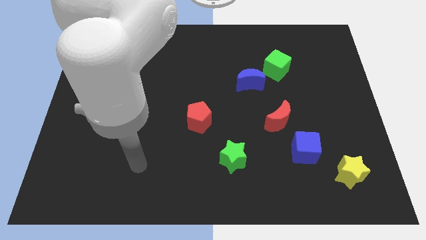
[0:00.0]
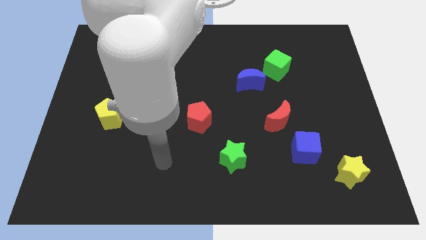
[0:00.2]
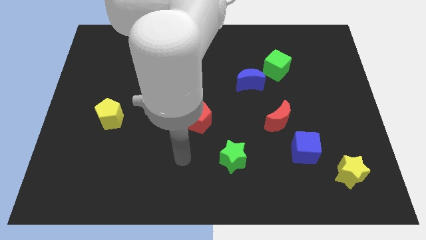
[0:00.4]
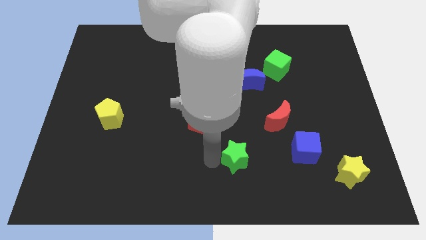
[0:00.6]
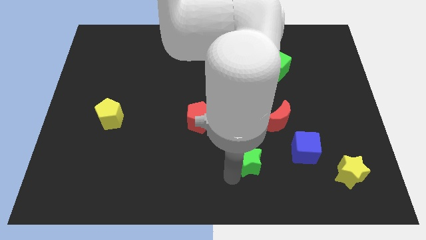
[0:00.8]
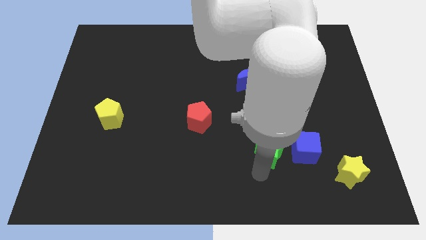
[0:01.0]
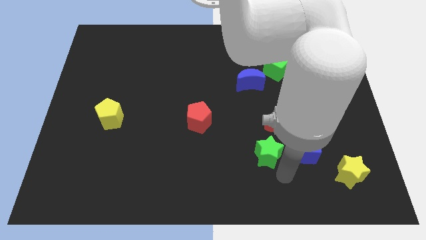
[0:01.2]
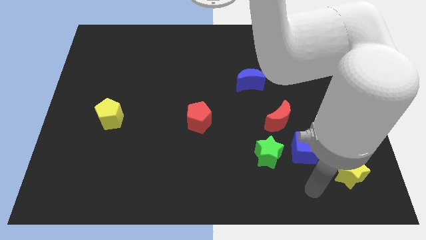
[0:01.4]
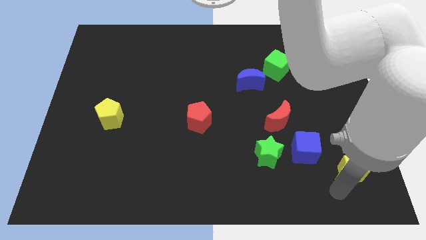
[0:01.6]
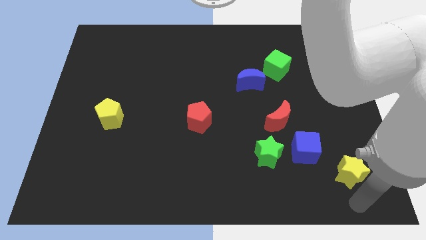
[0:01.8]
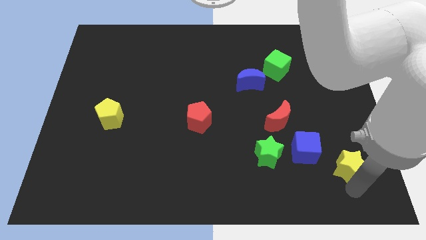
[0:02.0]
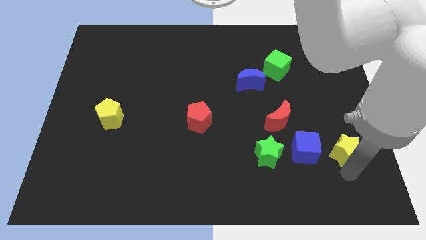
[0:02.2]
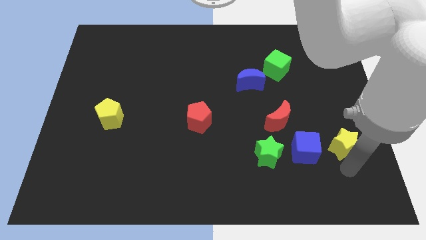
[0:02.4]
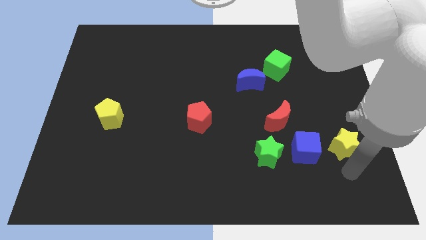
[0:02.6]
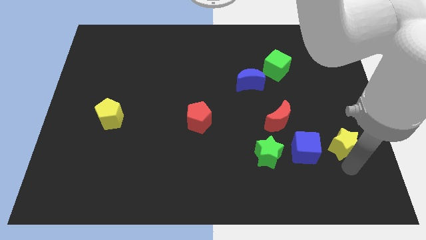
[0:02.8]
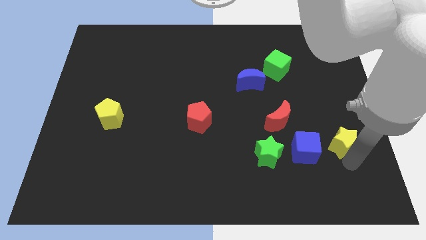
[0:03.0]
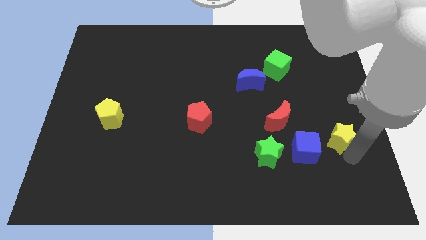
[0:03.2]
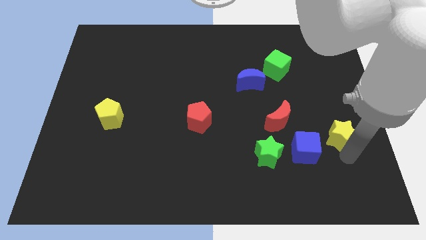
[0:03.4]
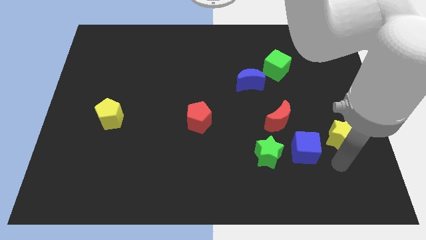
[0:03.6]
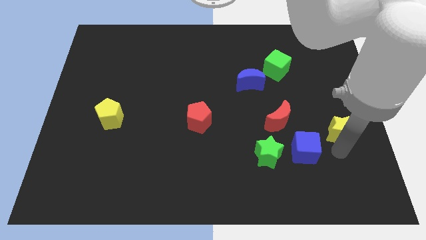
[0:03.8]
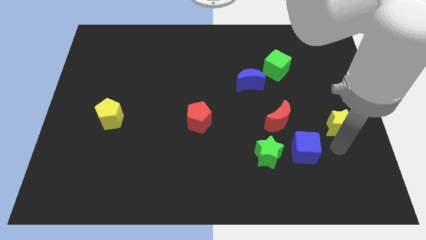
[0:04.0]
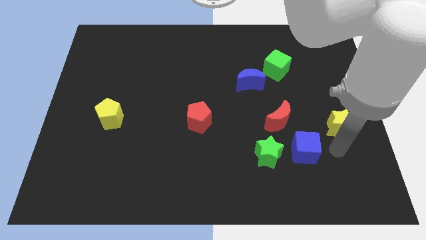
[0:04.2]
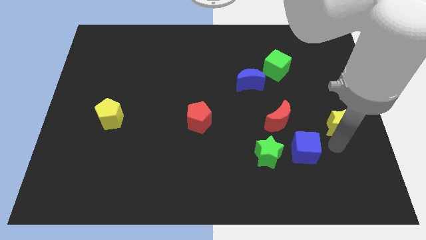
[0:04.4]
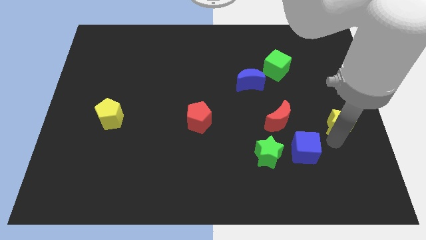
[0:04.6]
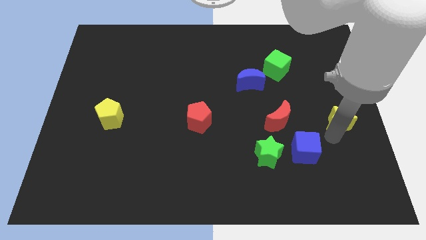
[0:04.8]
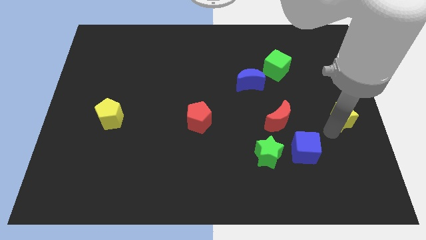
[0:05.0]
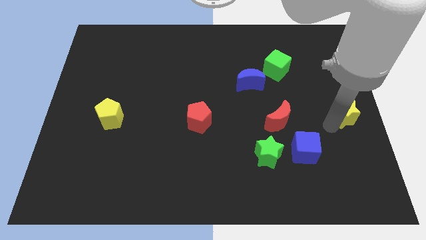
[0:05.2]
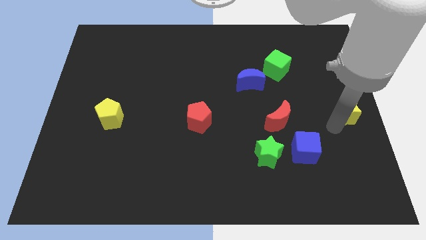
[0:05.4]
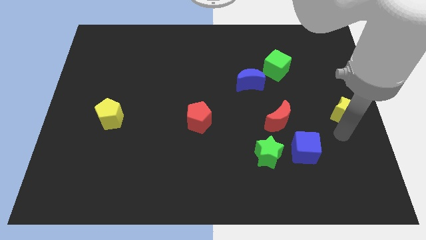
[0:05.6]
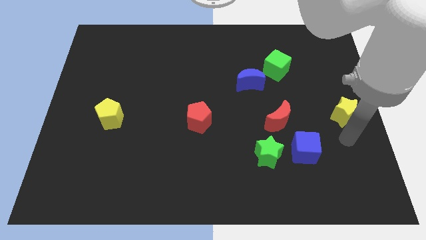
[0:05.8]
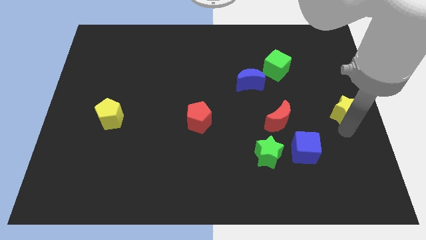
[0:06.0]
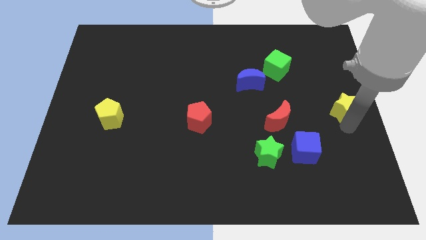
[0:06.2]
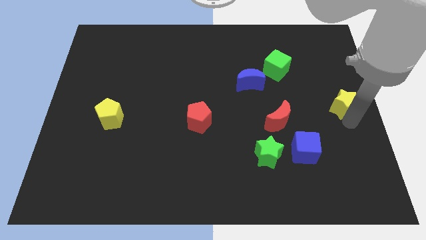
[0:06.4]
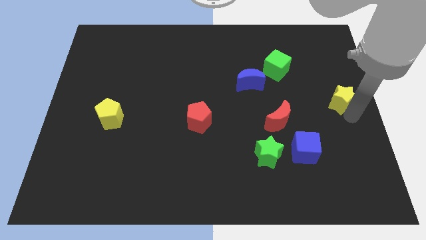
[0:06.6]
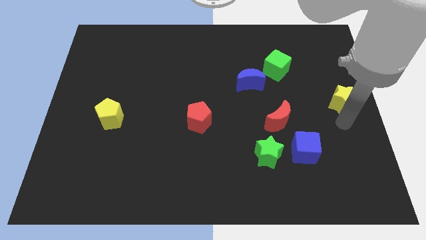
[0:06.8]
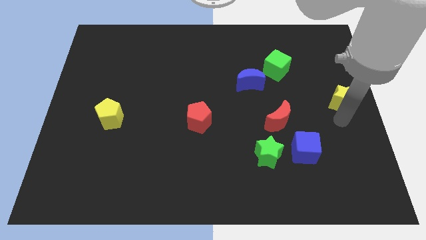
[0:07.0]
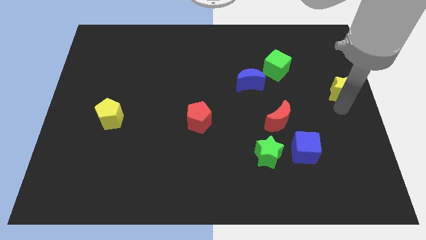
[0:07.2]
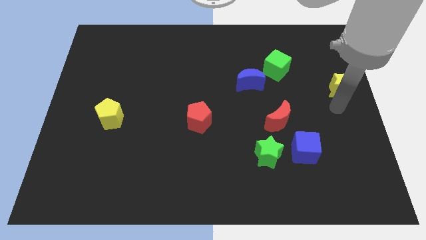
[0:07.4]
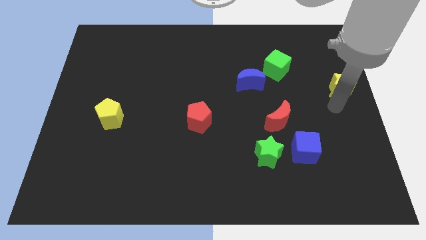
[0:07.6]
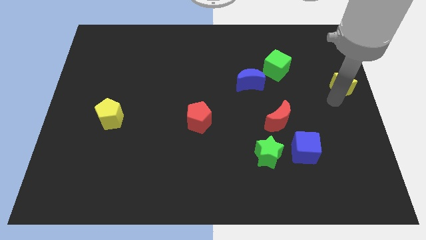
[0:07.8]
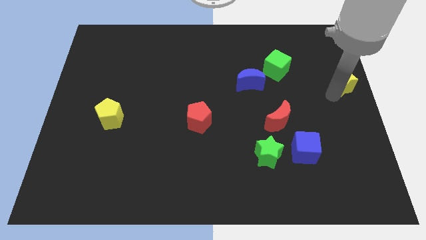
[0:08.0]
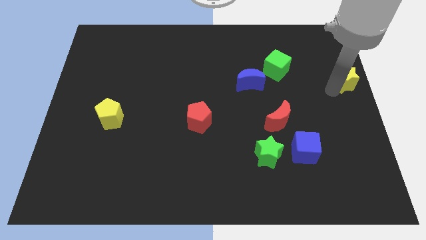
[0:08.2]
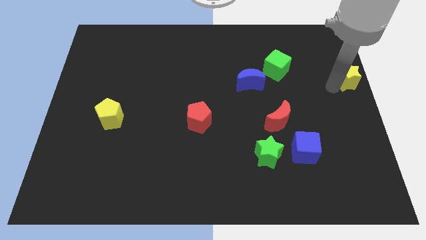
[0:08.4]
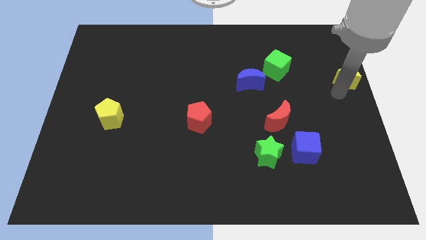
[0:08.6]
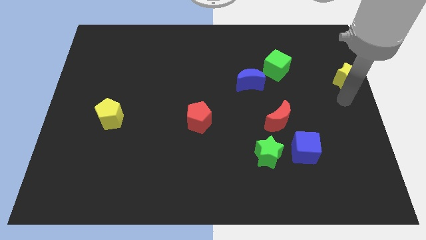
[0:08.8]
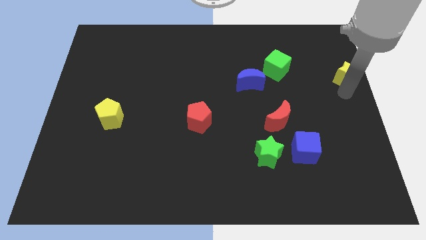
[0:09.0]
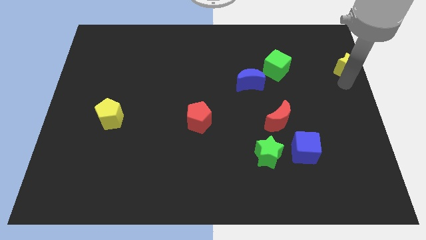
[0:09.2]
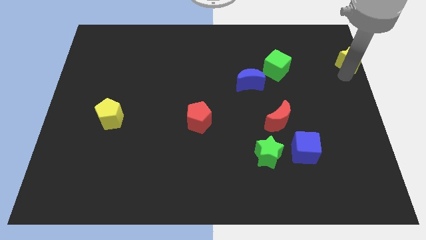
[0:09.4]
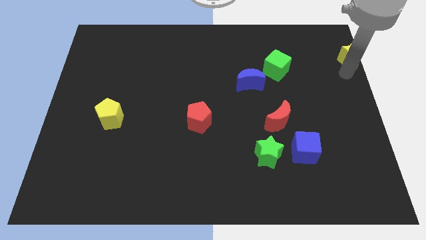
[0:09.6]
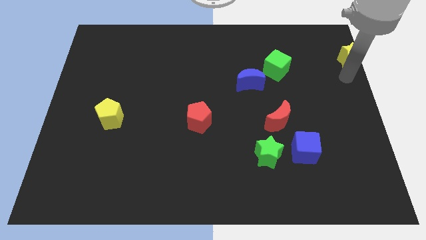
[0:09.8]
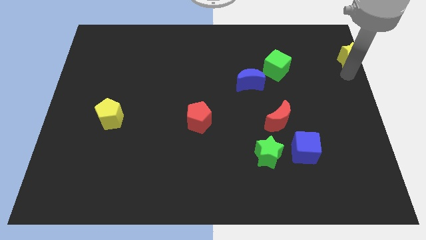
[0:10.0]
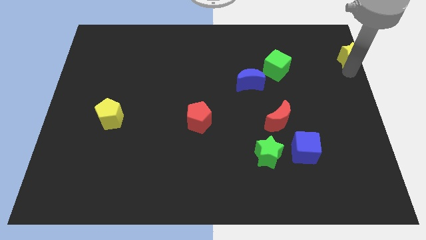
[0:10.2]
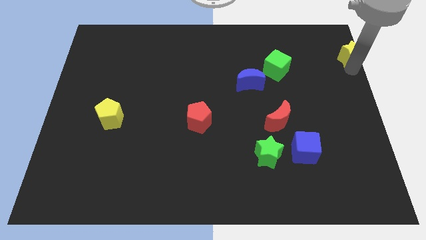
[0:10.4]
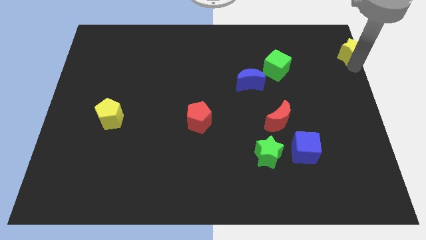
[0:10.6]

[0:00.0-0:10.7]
push the yellow star to the top right corner

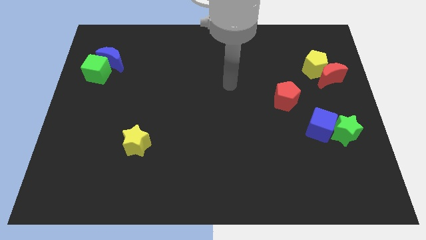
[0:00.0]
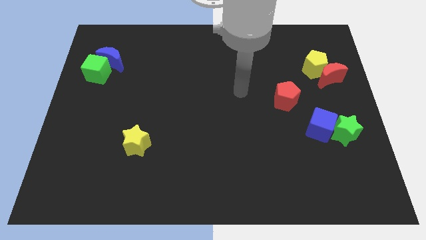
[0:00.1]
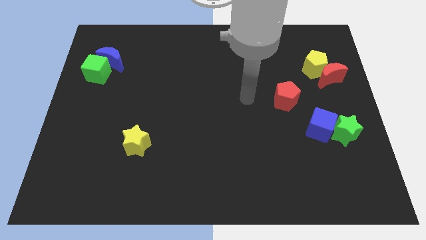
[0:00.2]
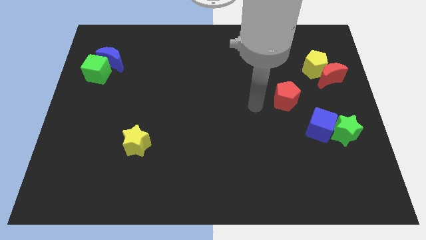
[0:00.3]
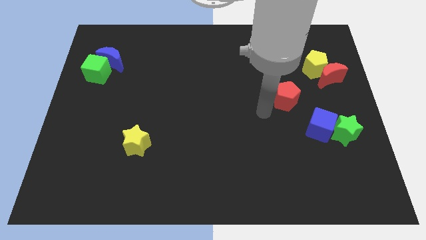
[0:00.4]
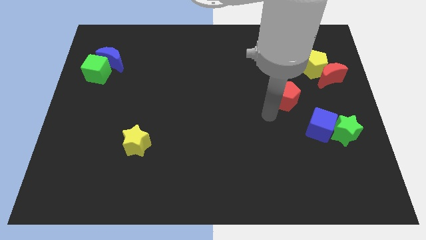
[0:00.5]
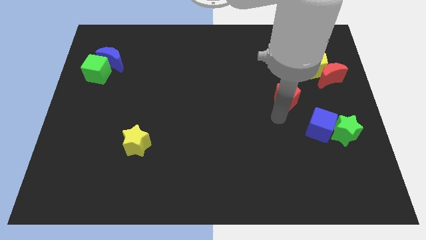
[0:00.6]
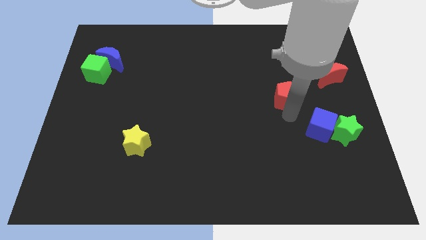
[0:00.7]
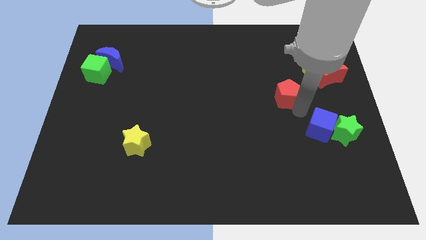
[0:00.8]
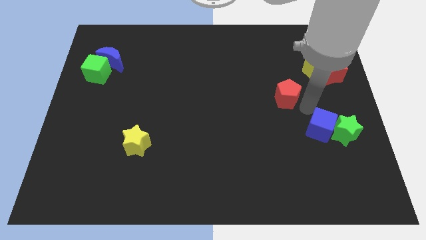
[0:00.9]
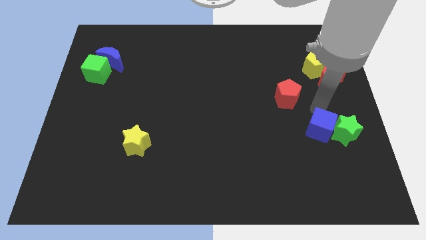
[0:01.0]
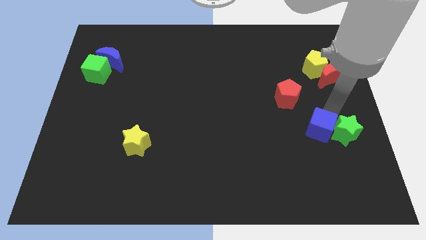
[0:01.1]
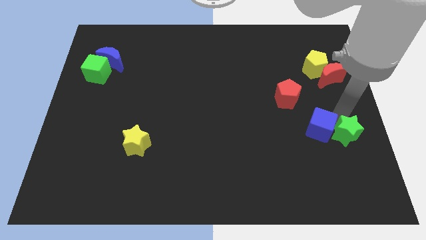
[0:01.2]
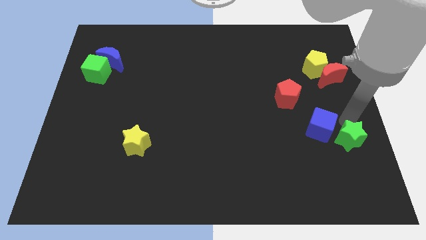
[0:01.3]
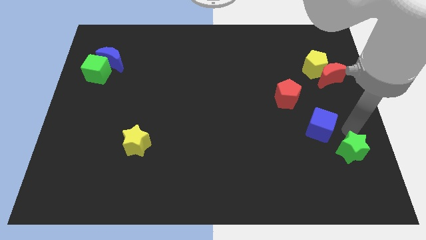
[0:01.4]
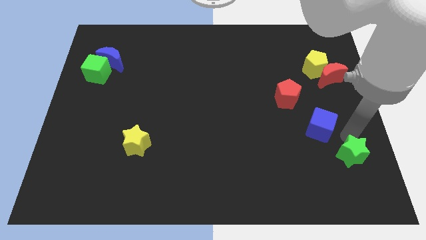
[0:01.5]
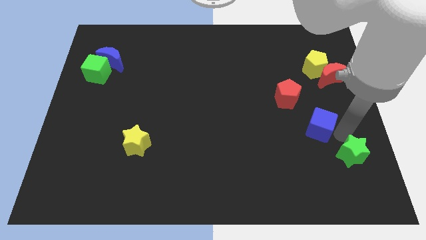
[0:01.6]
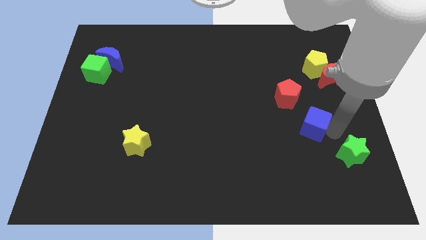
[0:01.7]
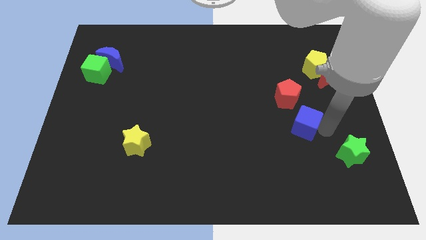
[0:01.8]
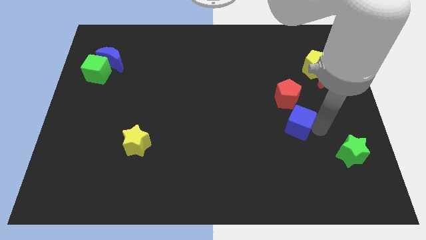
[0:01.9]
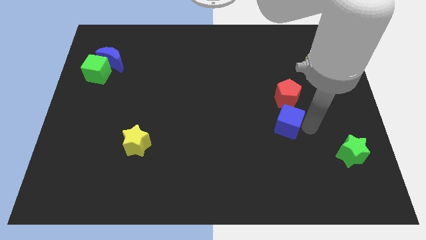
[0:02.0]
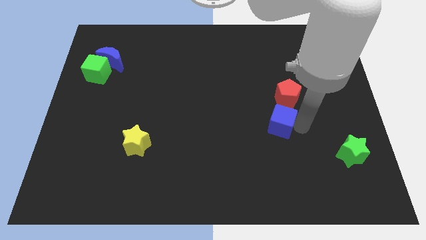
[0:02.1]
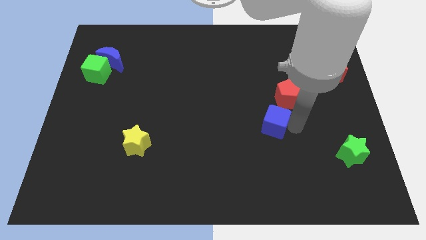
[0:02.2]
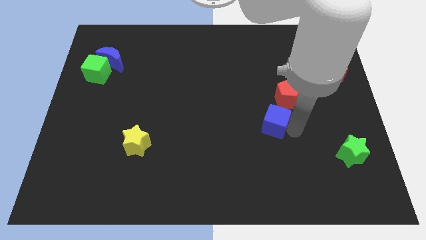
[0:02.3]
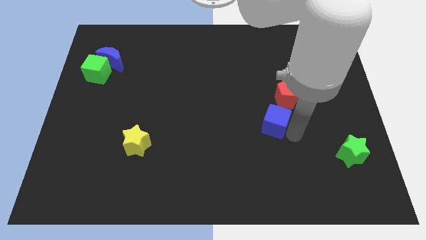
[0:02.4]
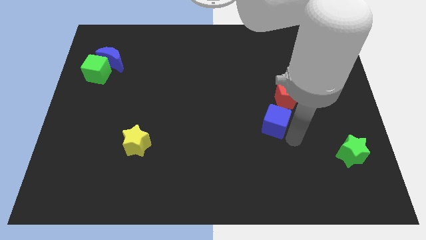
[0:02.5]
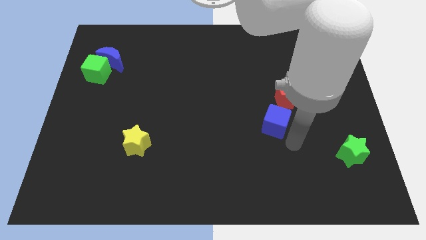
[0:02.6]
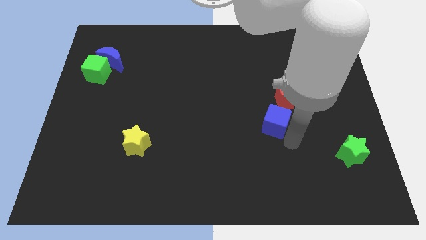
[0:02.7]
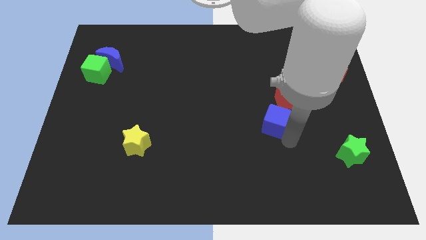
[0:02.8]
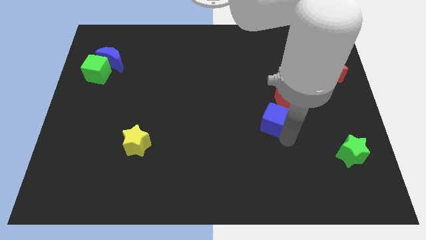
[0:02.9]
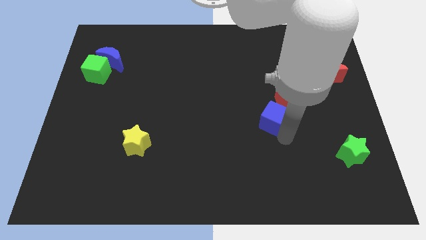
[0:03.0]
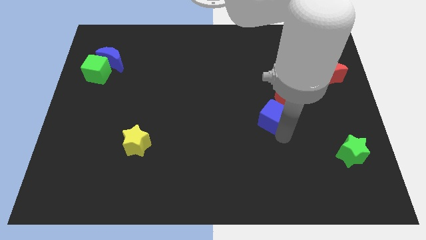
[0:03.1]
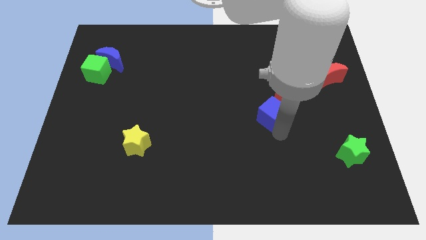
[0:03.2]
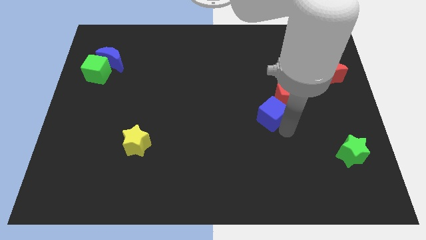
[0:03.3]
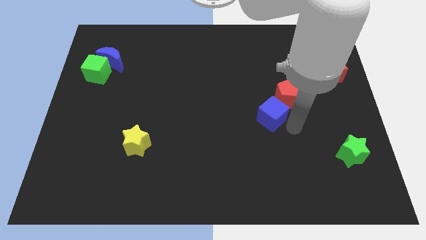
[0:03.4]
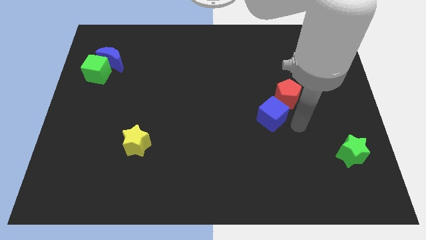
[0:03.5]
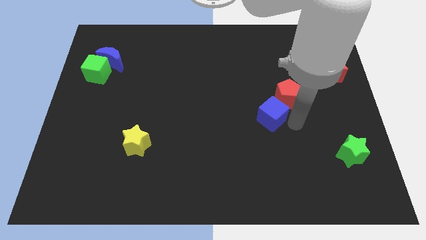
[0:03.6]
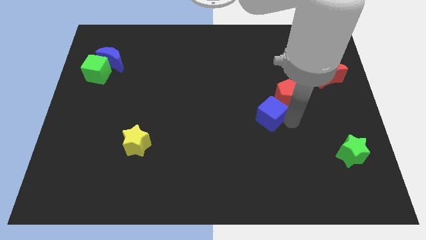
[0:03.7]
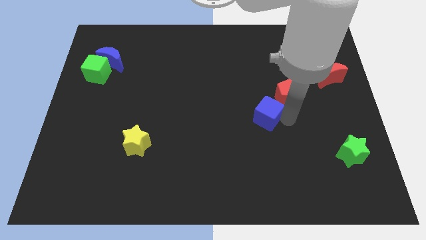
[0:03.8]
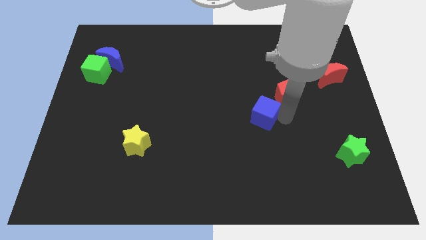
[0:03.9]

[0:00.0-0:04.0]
move the blue cube to the middle of the board
